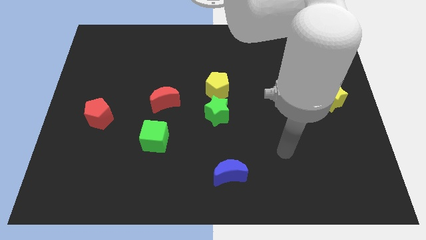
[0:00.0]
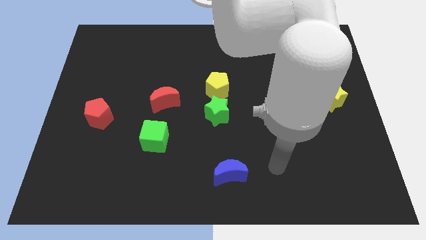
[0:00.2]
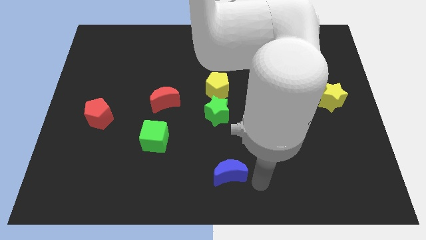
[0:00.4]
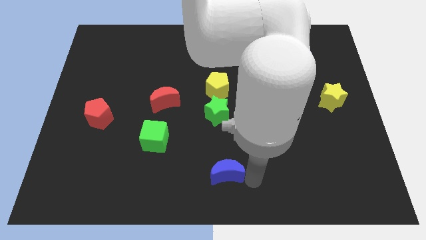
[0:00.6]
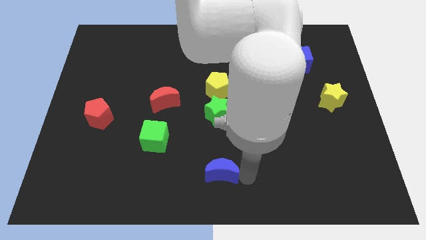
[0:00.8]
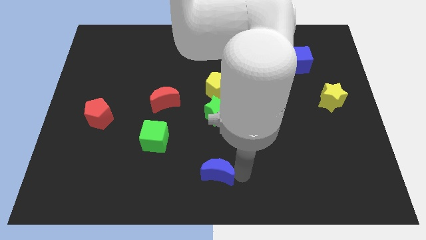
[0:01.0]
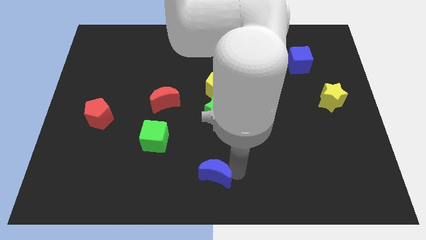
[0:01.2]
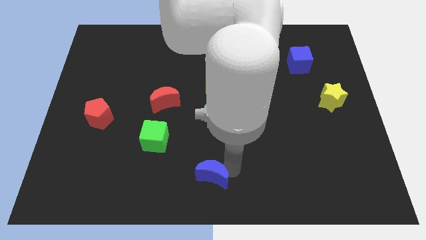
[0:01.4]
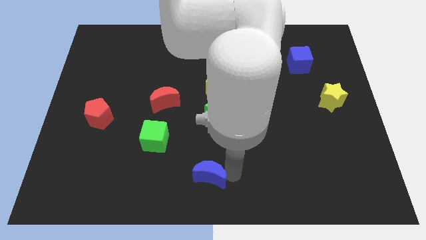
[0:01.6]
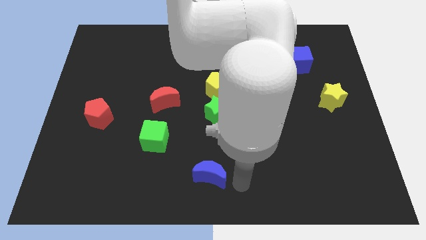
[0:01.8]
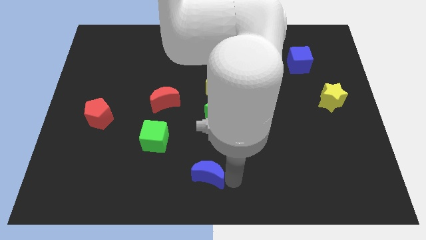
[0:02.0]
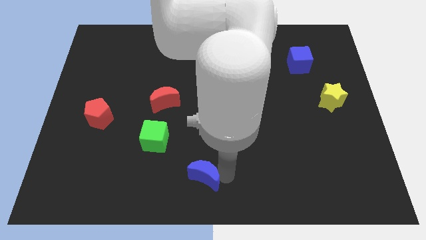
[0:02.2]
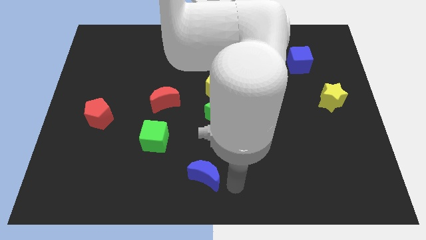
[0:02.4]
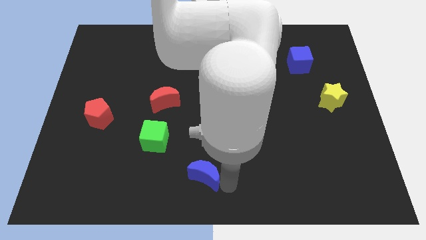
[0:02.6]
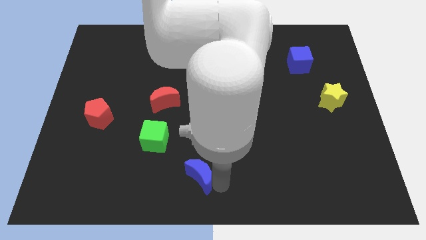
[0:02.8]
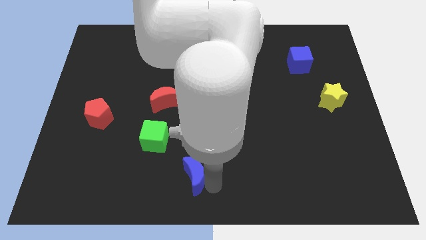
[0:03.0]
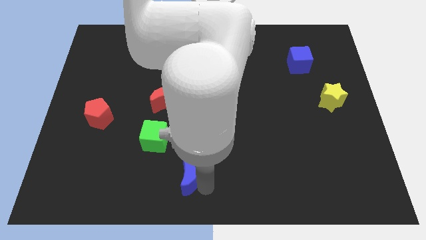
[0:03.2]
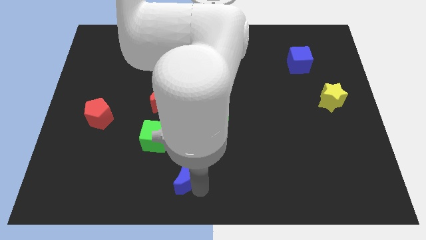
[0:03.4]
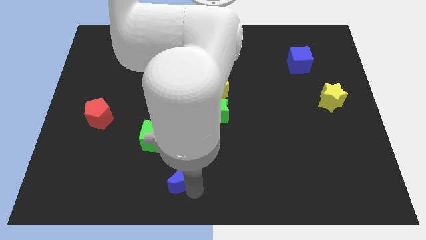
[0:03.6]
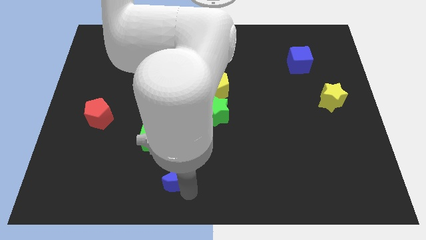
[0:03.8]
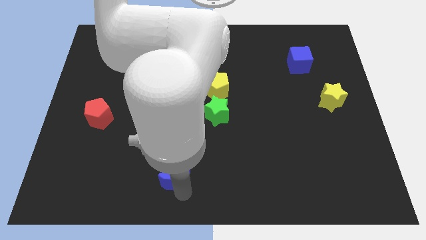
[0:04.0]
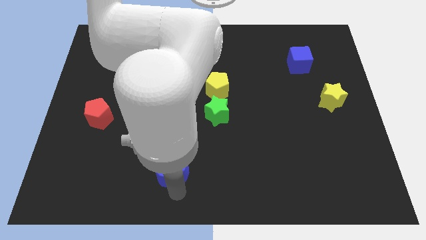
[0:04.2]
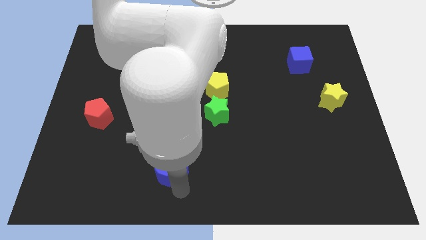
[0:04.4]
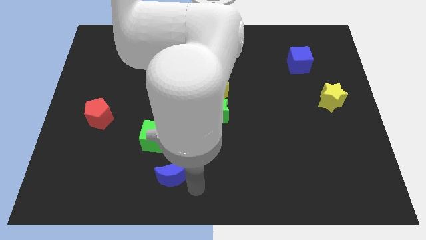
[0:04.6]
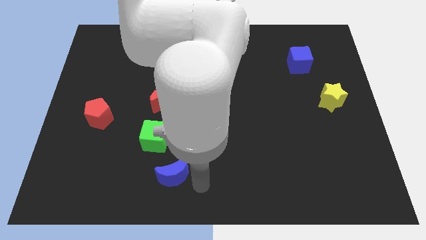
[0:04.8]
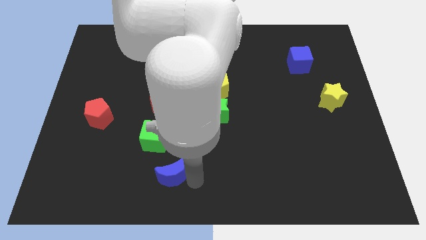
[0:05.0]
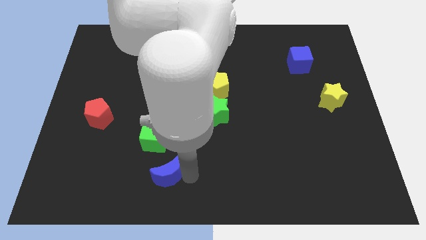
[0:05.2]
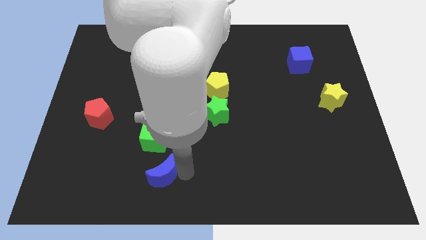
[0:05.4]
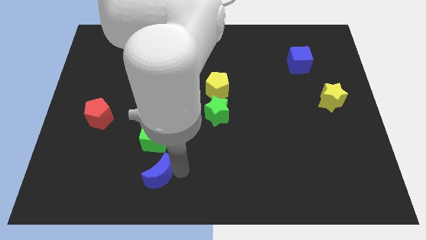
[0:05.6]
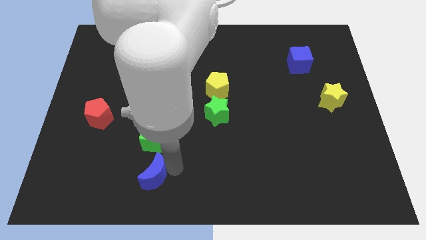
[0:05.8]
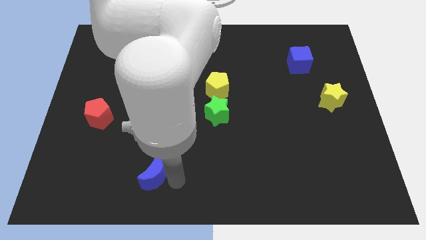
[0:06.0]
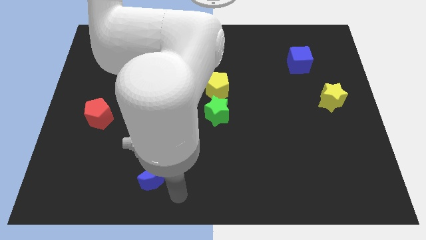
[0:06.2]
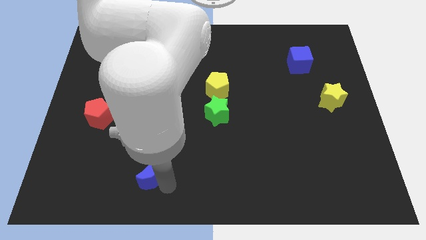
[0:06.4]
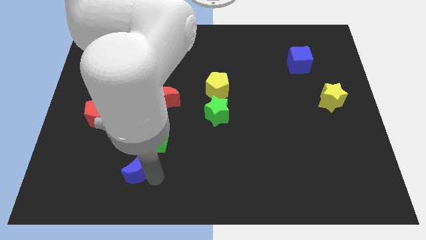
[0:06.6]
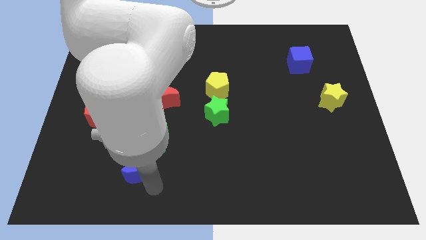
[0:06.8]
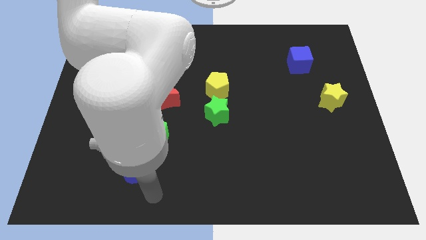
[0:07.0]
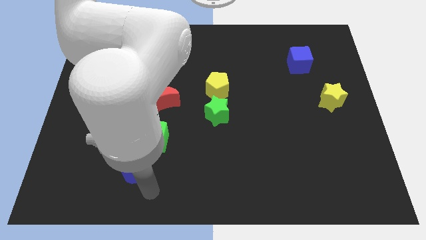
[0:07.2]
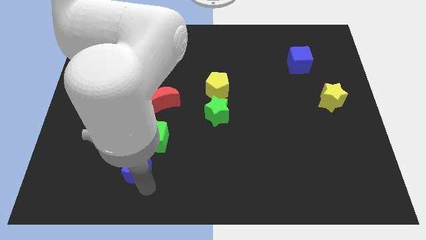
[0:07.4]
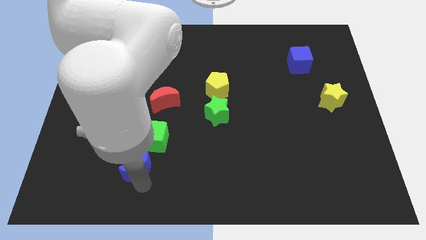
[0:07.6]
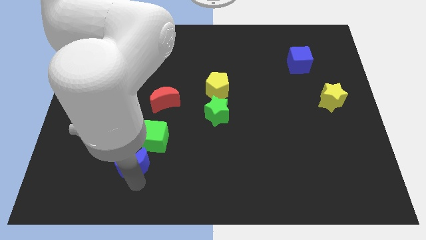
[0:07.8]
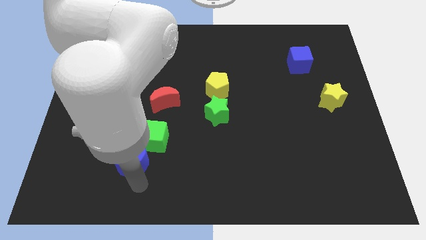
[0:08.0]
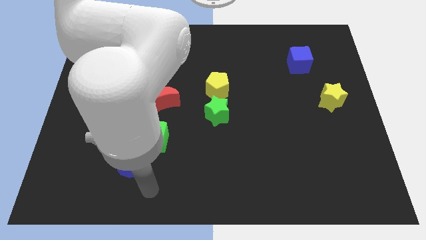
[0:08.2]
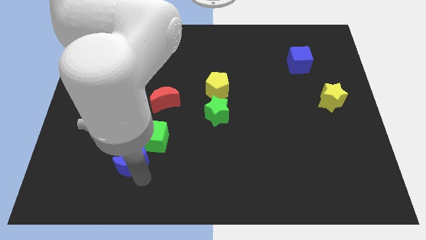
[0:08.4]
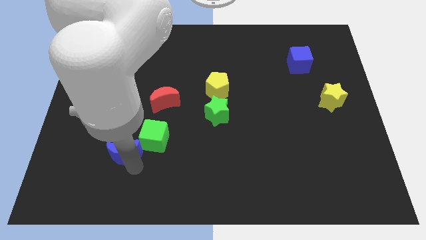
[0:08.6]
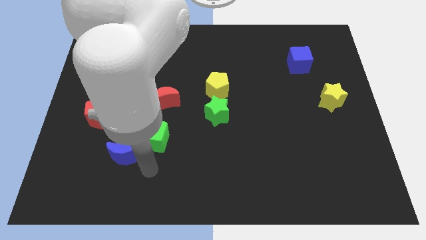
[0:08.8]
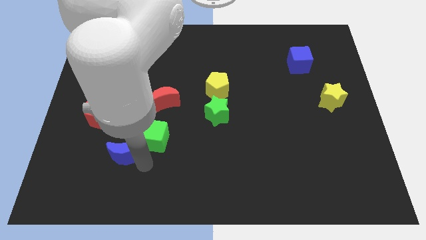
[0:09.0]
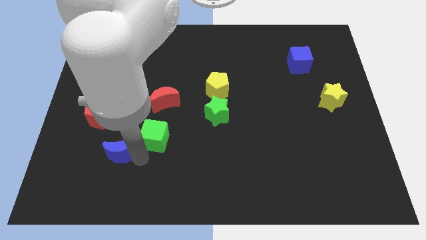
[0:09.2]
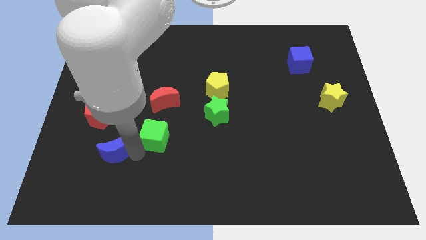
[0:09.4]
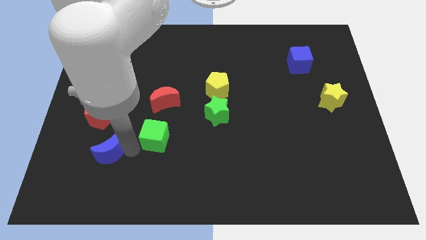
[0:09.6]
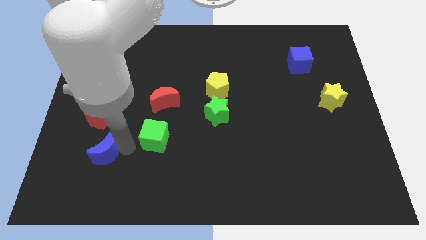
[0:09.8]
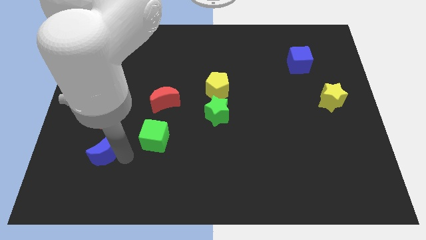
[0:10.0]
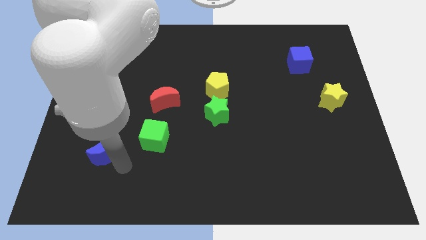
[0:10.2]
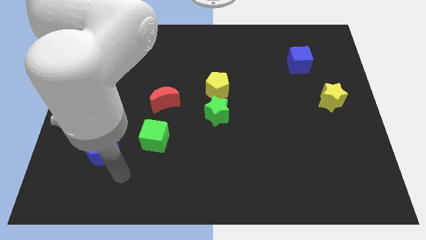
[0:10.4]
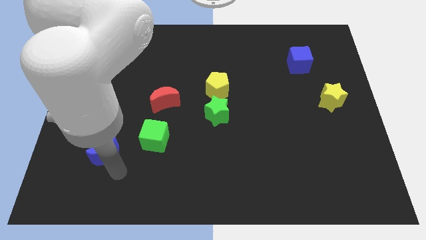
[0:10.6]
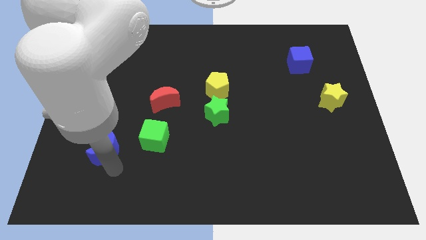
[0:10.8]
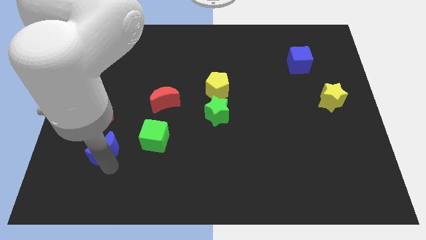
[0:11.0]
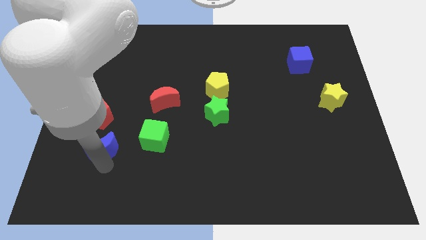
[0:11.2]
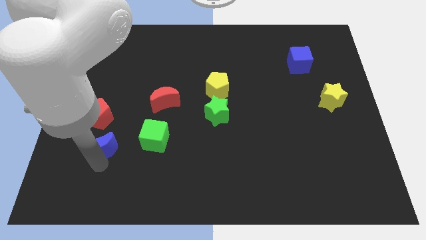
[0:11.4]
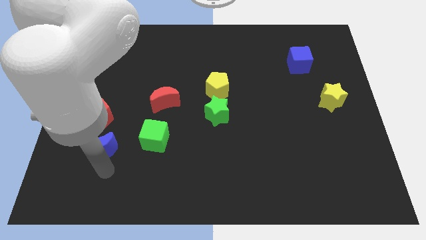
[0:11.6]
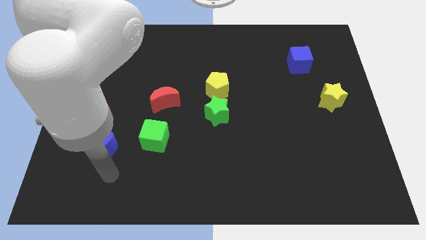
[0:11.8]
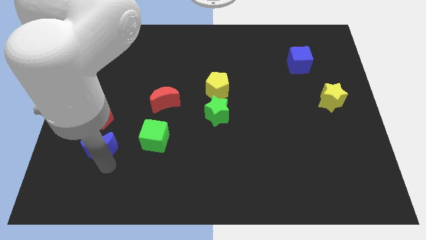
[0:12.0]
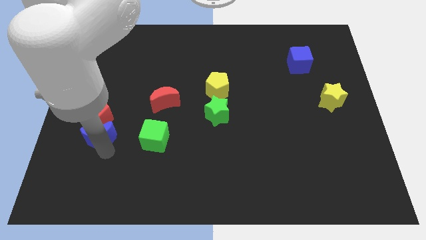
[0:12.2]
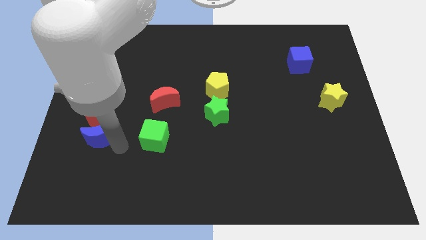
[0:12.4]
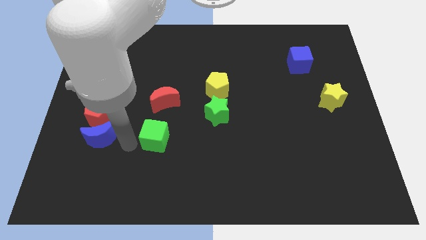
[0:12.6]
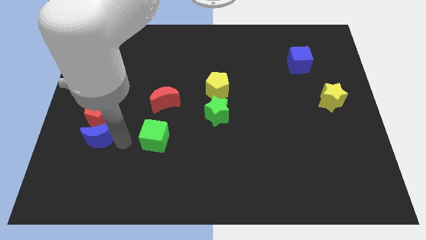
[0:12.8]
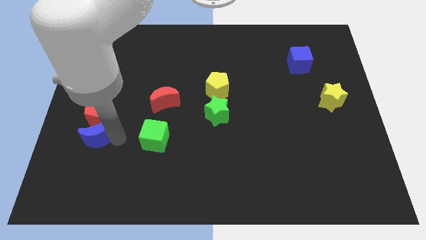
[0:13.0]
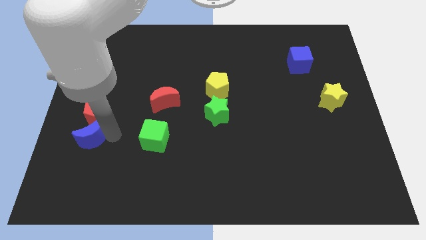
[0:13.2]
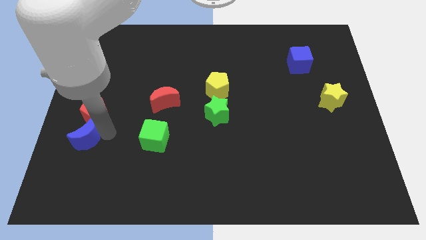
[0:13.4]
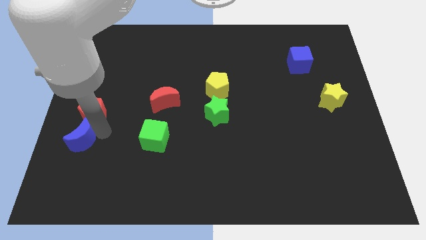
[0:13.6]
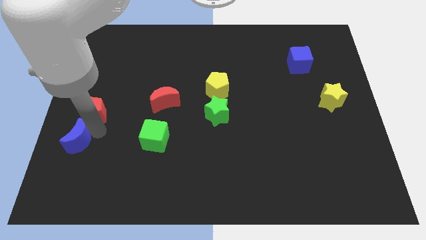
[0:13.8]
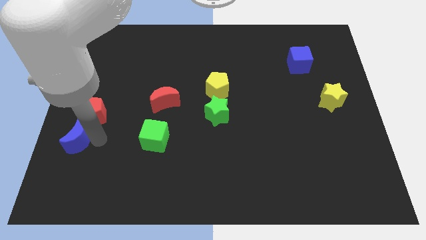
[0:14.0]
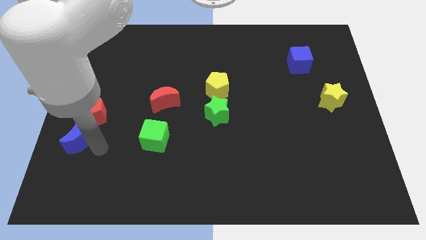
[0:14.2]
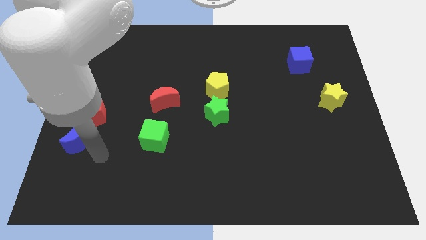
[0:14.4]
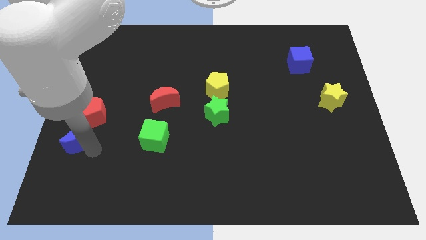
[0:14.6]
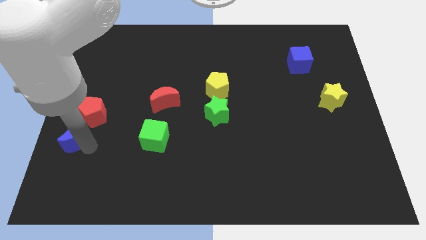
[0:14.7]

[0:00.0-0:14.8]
slide the blue moon to the center left
